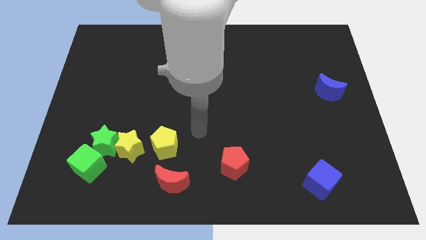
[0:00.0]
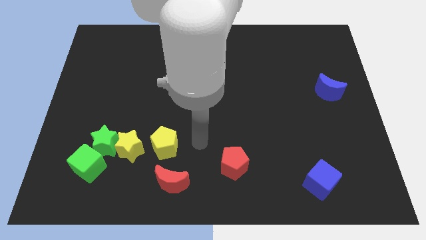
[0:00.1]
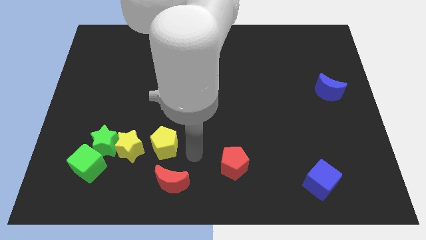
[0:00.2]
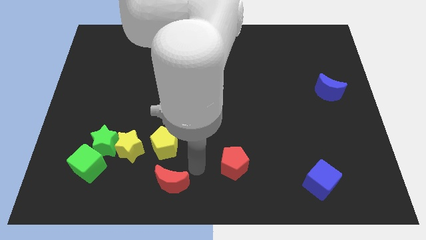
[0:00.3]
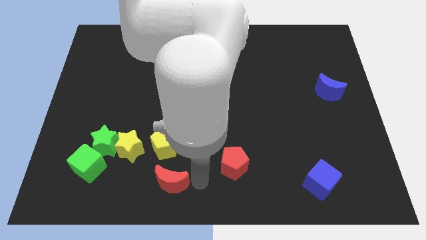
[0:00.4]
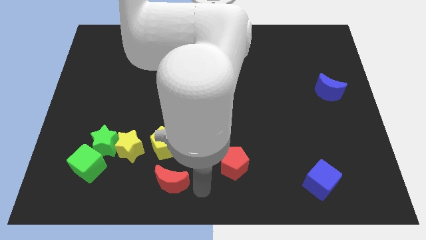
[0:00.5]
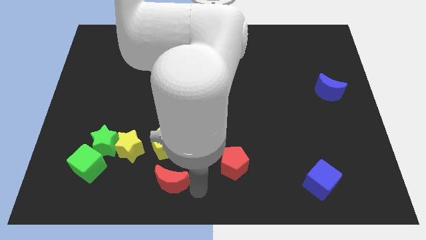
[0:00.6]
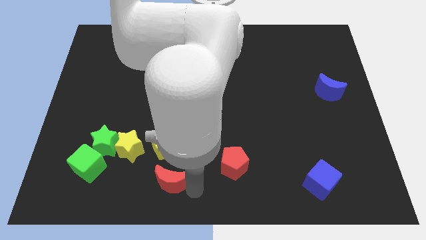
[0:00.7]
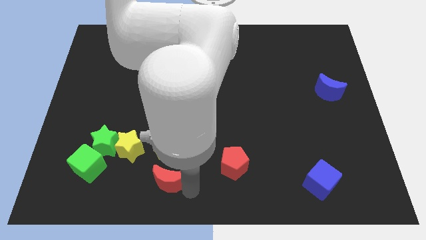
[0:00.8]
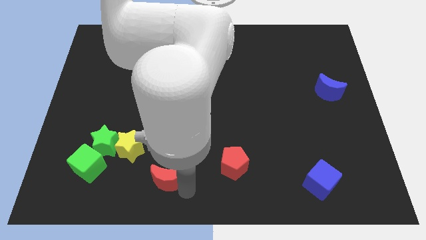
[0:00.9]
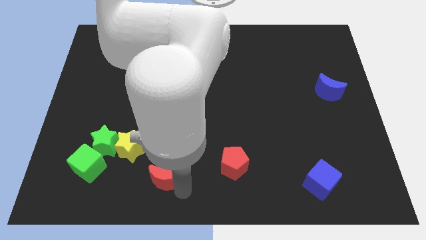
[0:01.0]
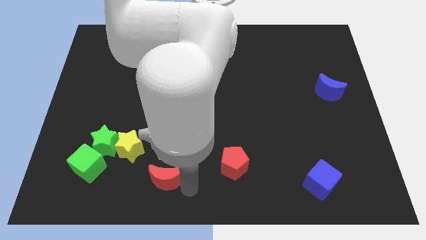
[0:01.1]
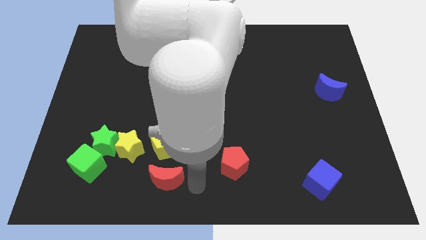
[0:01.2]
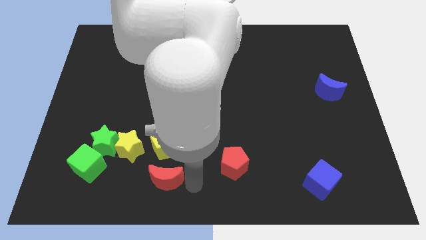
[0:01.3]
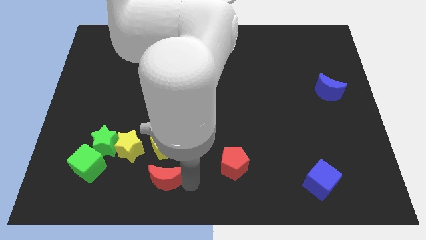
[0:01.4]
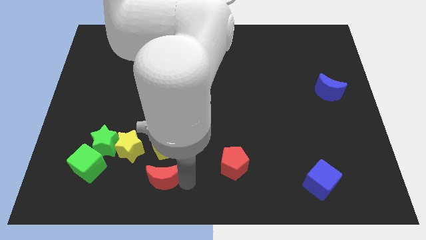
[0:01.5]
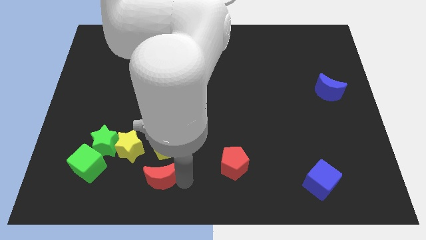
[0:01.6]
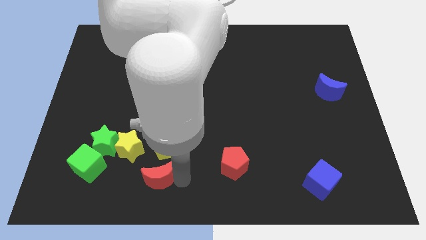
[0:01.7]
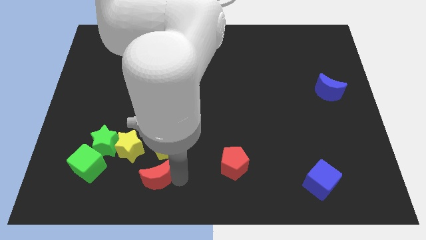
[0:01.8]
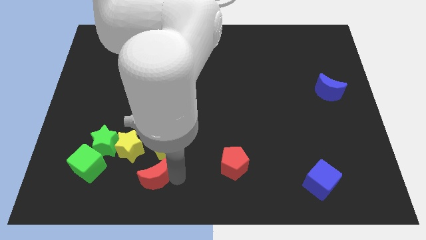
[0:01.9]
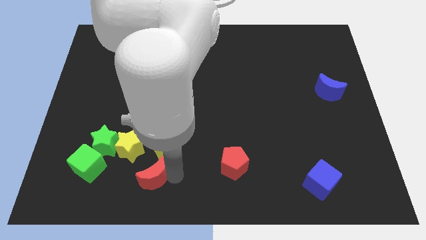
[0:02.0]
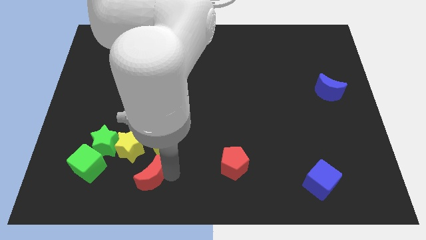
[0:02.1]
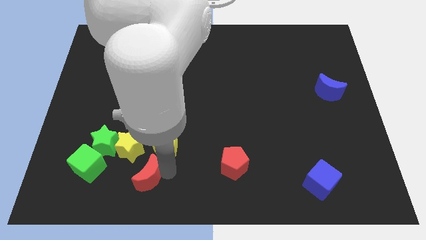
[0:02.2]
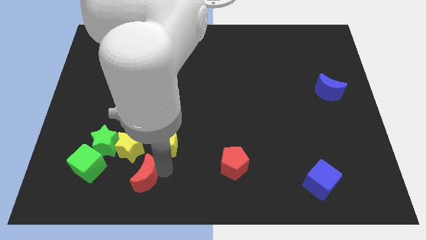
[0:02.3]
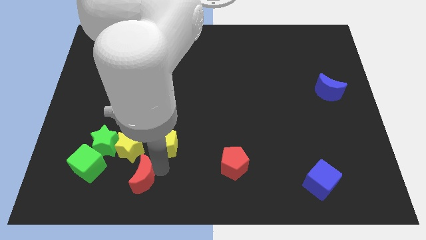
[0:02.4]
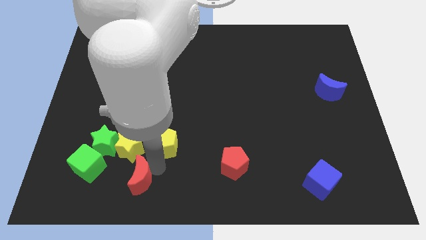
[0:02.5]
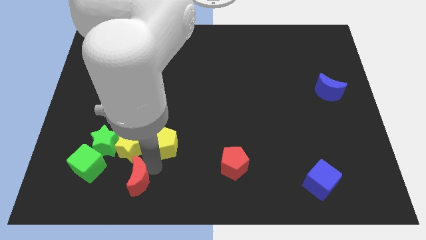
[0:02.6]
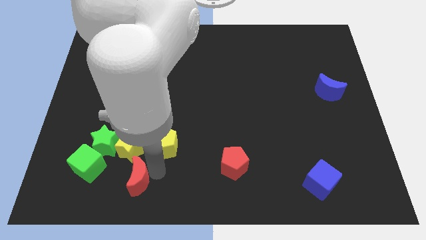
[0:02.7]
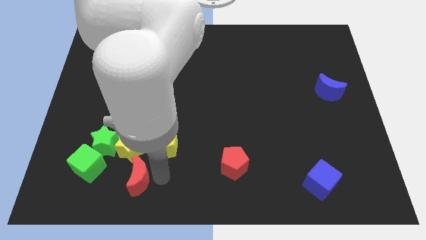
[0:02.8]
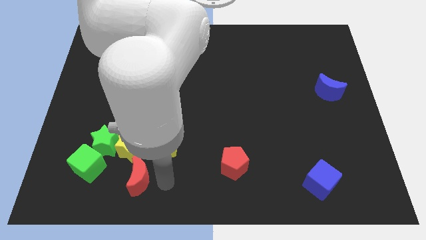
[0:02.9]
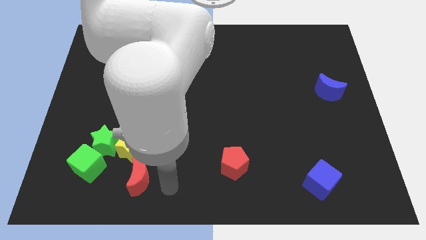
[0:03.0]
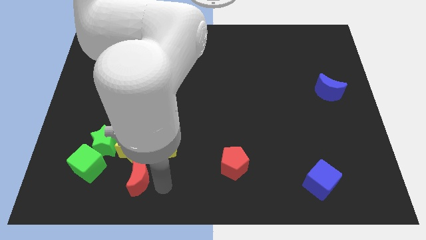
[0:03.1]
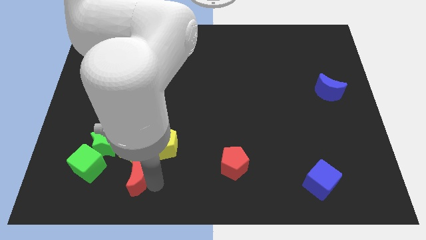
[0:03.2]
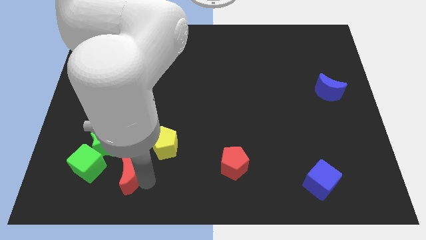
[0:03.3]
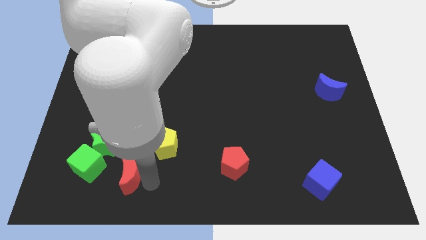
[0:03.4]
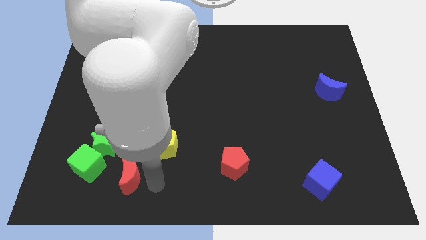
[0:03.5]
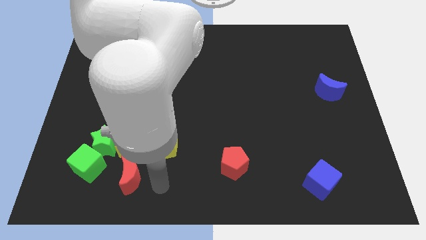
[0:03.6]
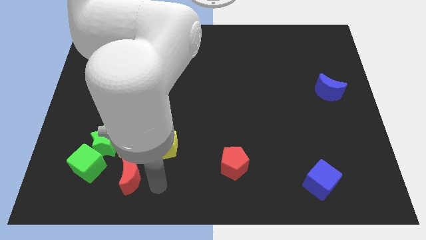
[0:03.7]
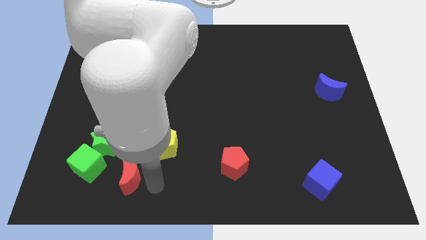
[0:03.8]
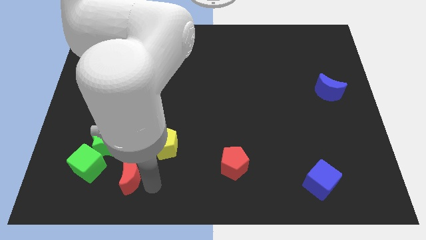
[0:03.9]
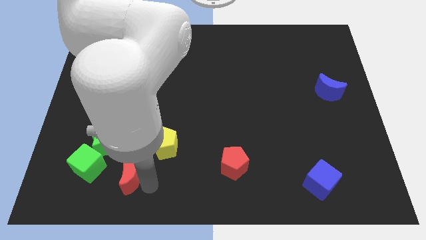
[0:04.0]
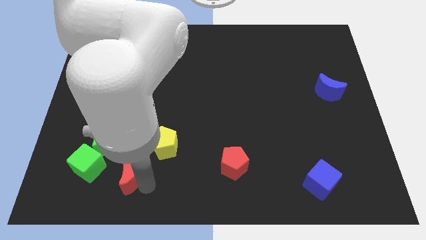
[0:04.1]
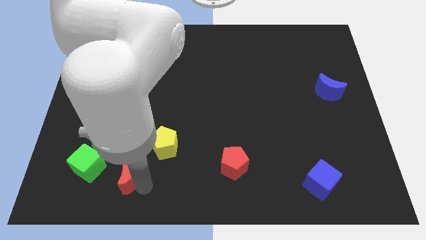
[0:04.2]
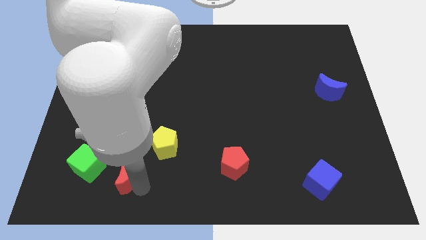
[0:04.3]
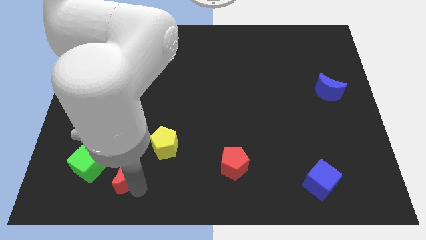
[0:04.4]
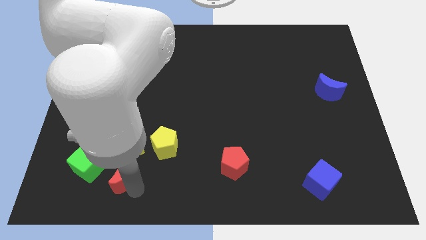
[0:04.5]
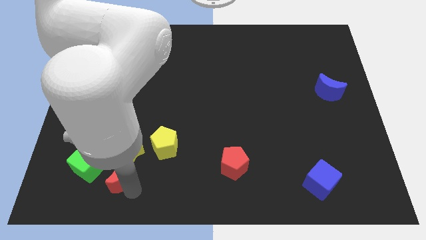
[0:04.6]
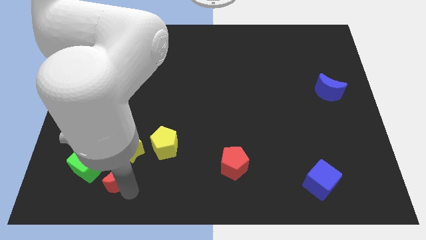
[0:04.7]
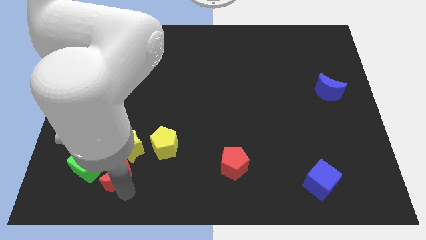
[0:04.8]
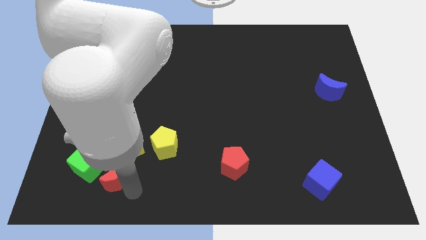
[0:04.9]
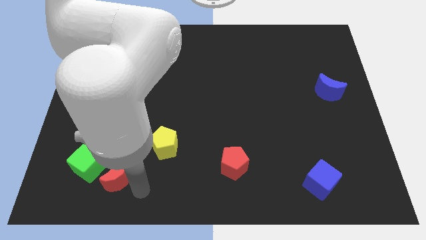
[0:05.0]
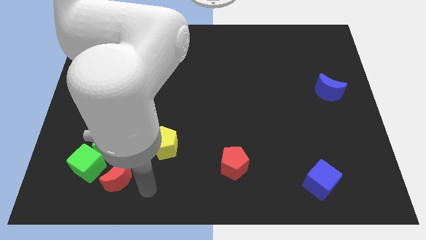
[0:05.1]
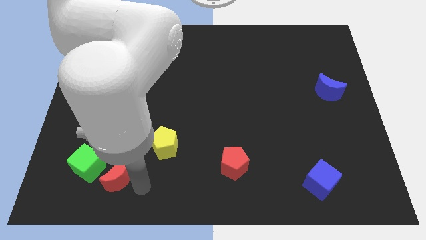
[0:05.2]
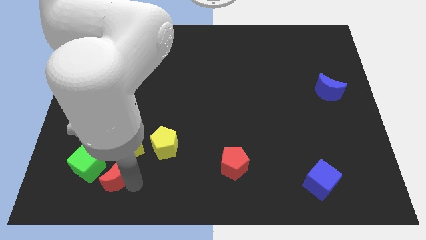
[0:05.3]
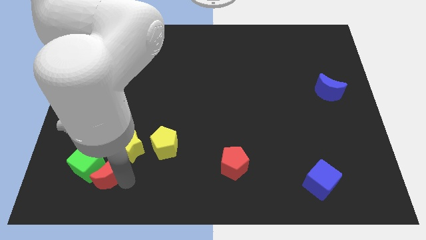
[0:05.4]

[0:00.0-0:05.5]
push the red moon close to the green cube

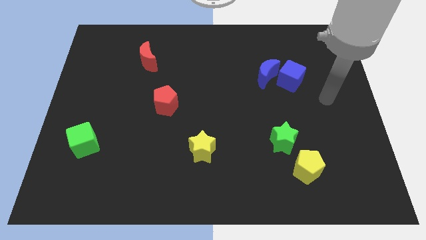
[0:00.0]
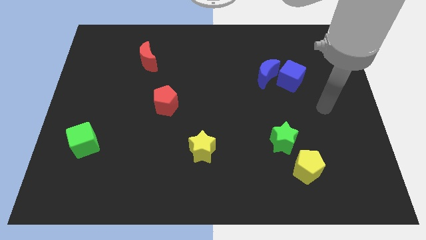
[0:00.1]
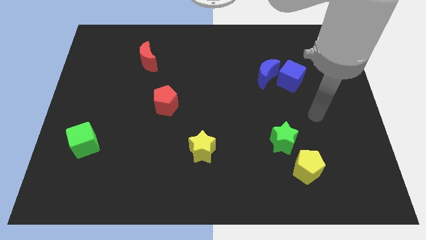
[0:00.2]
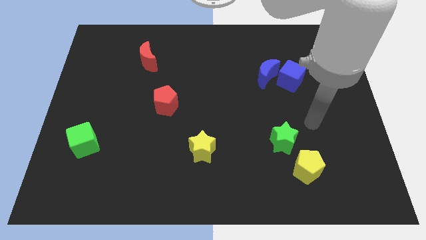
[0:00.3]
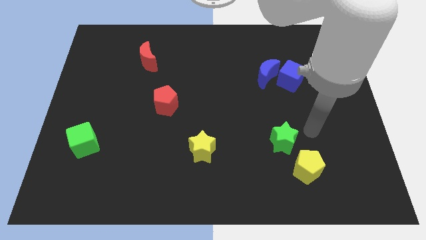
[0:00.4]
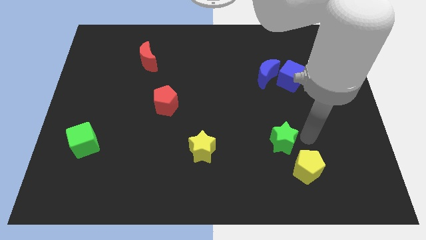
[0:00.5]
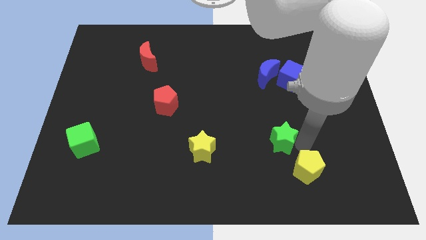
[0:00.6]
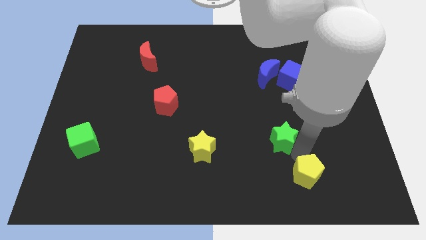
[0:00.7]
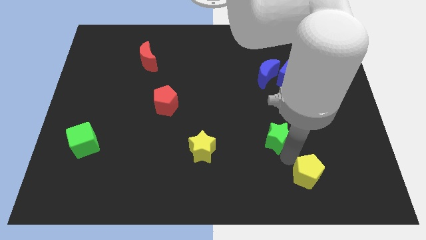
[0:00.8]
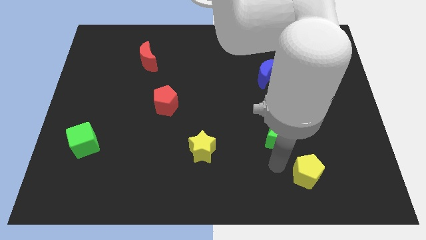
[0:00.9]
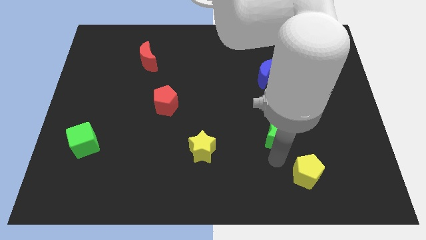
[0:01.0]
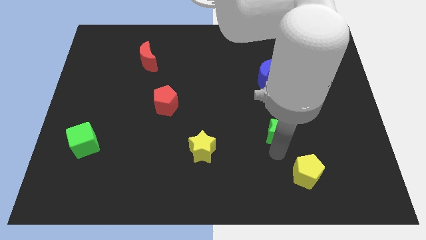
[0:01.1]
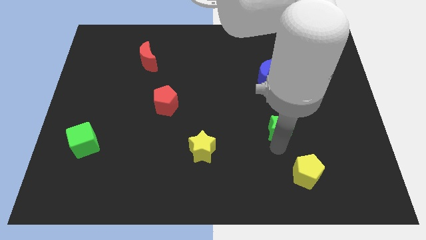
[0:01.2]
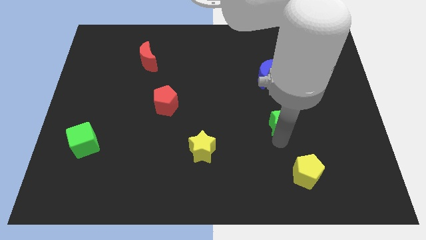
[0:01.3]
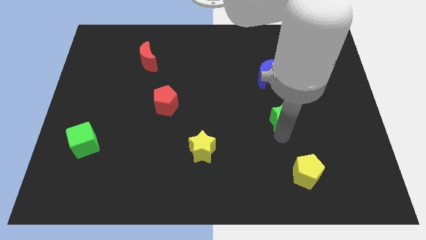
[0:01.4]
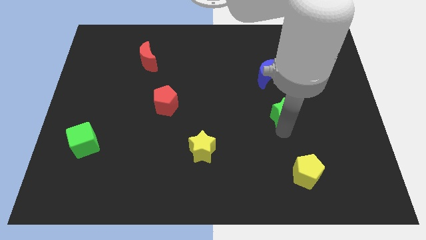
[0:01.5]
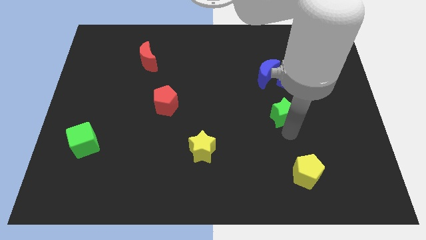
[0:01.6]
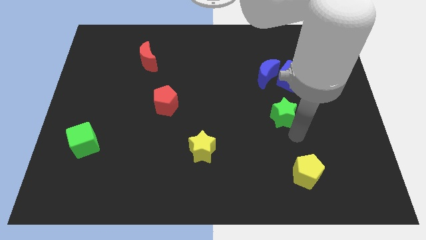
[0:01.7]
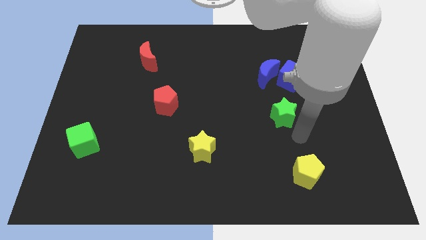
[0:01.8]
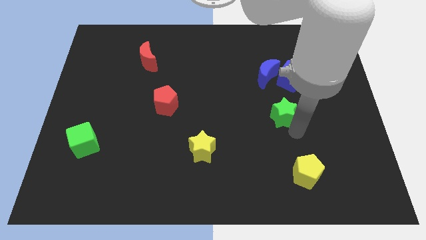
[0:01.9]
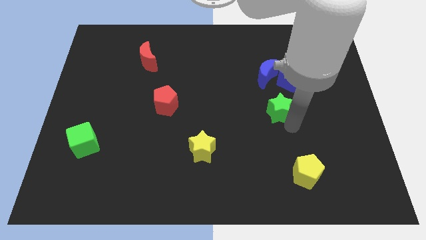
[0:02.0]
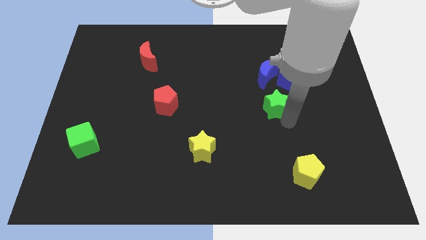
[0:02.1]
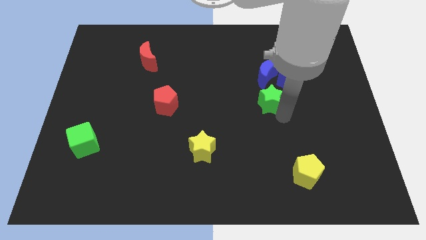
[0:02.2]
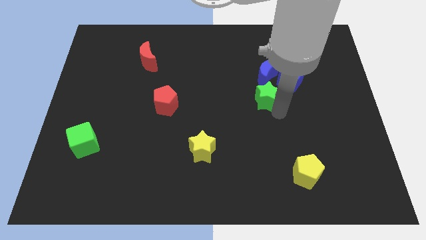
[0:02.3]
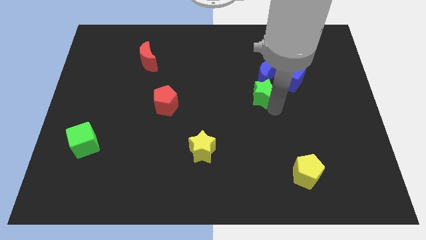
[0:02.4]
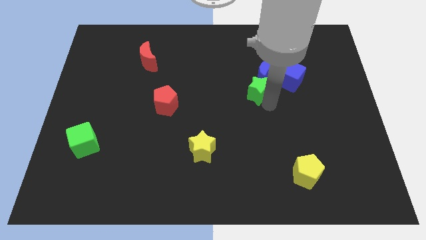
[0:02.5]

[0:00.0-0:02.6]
push the green star next to the blue moon
